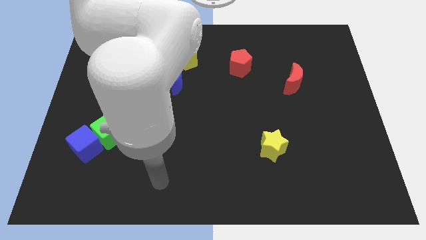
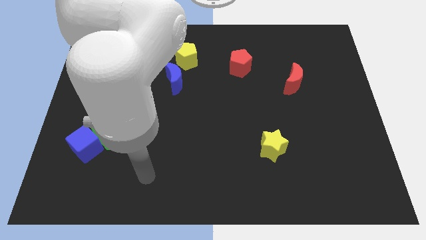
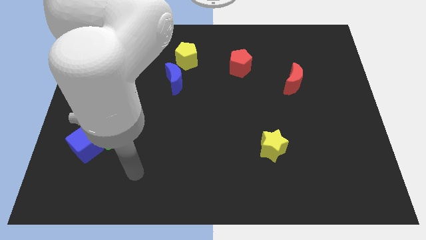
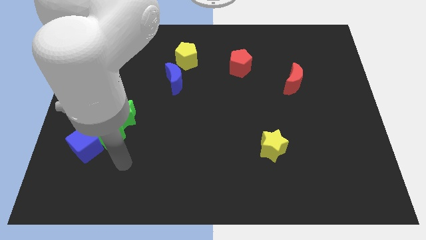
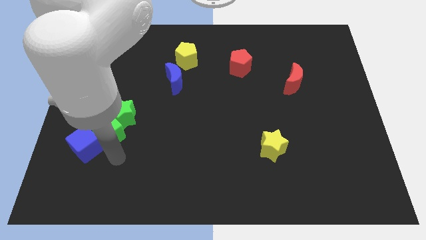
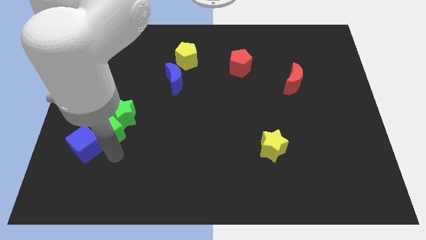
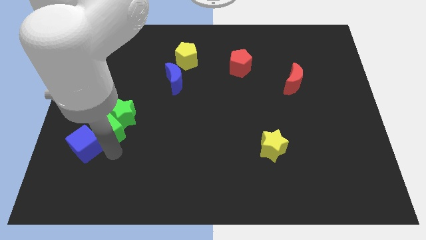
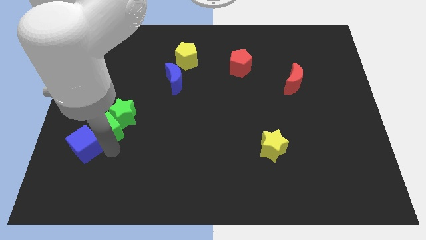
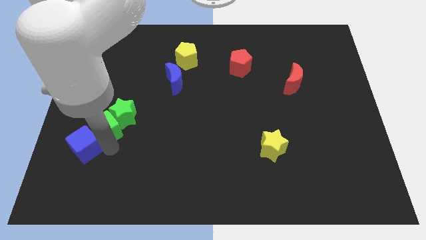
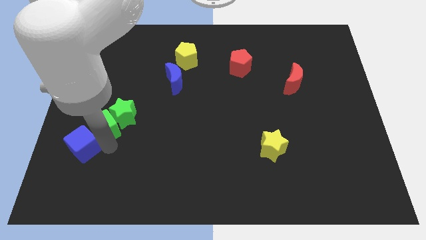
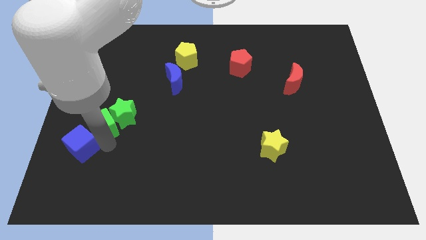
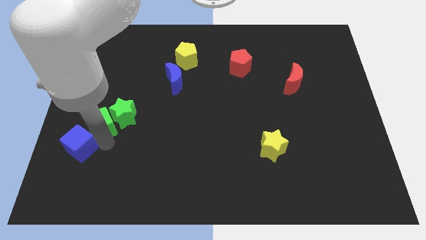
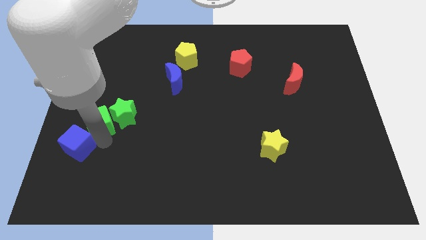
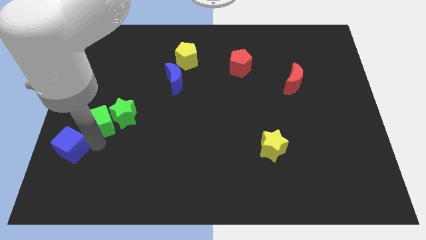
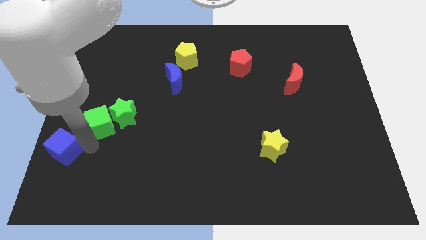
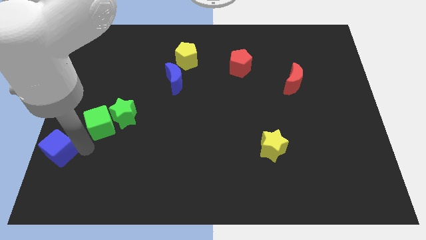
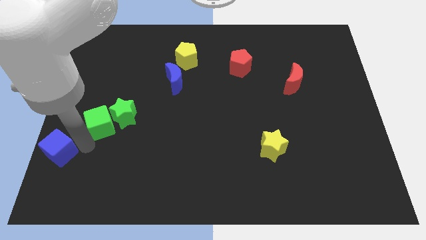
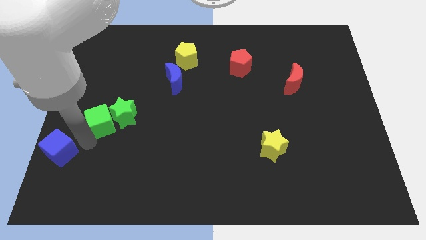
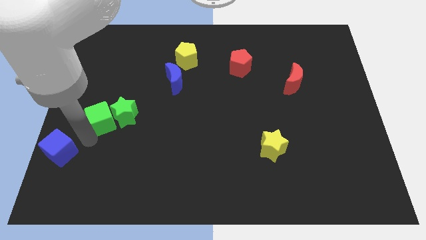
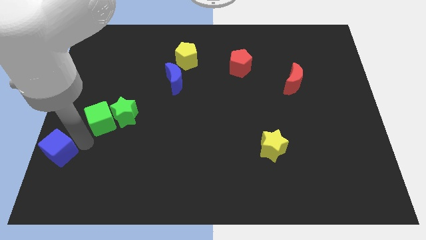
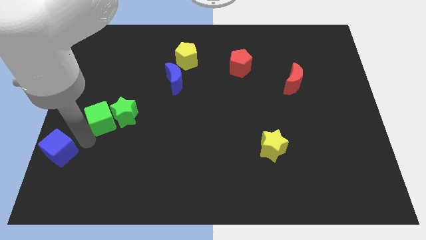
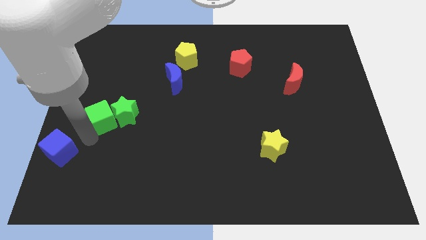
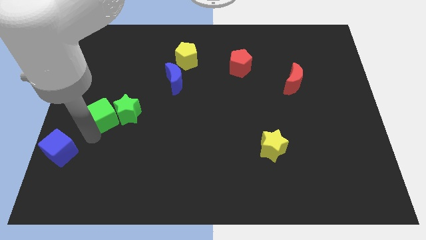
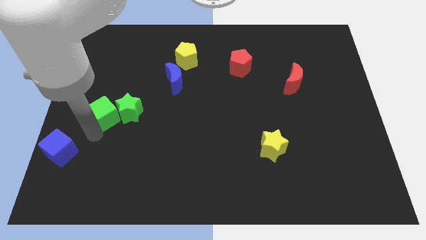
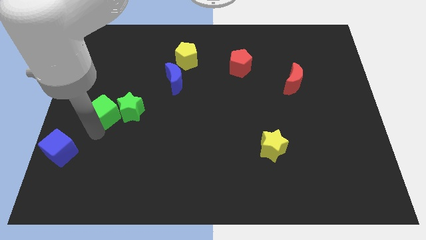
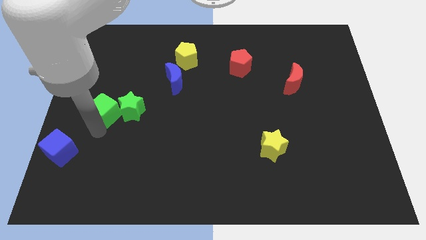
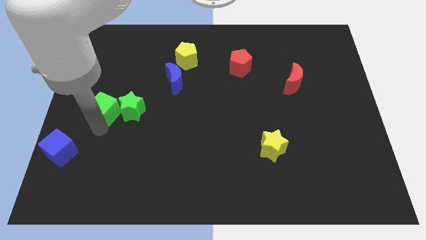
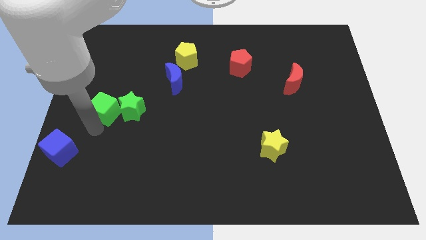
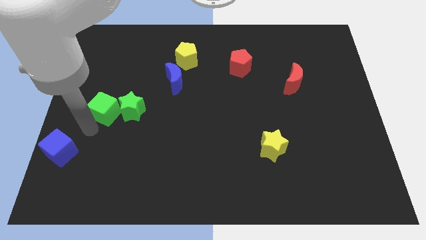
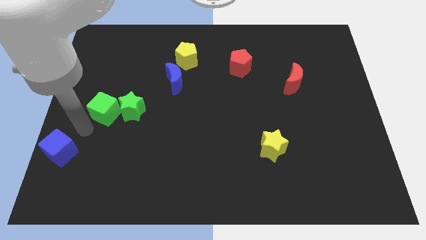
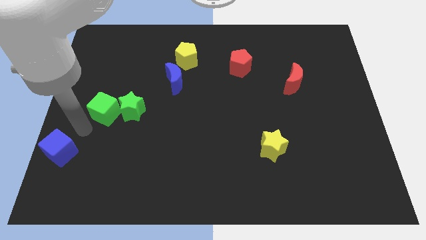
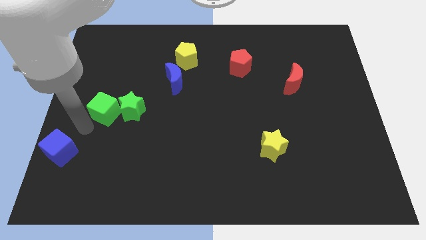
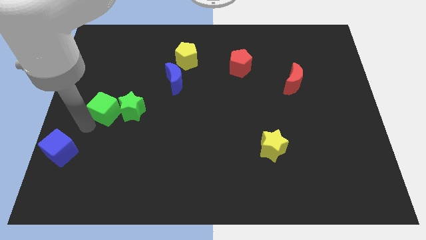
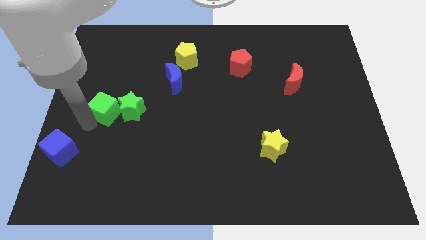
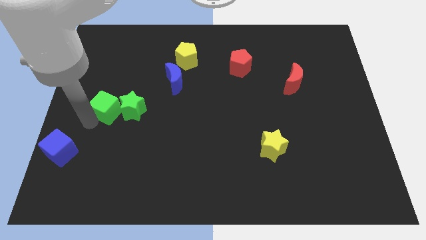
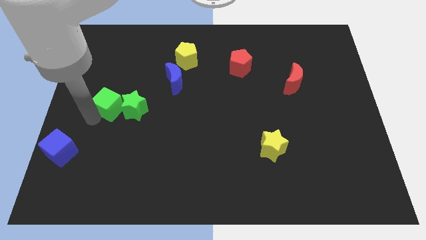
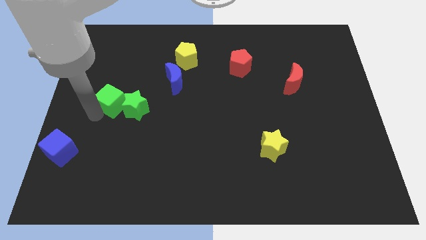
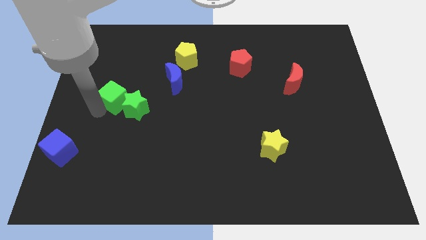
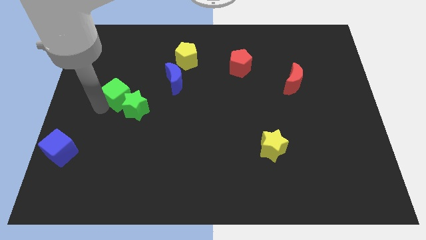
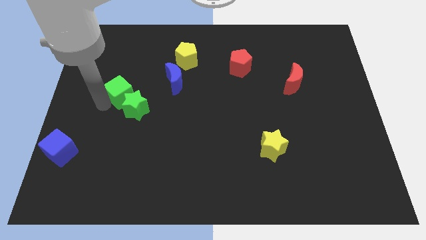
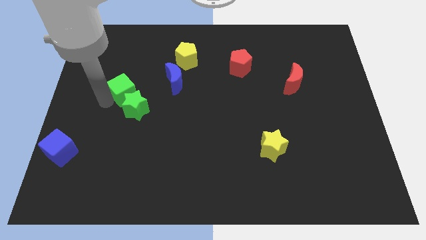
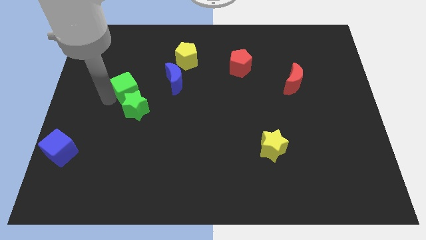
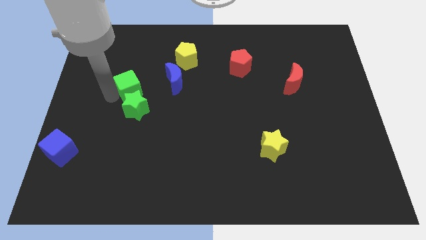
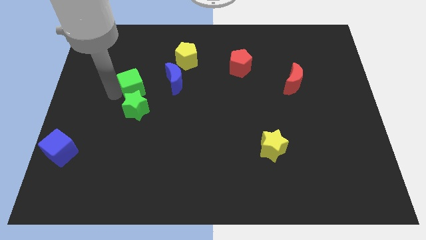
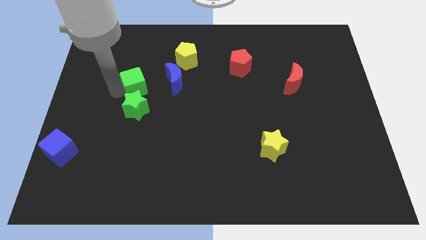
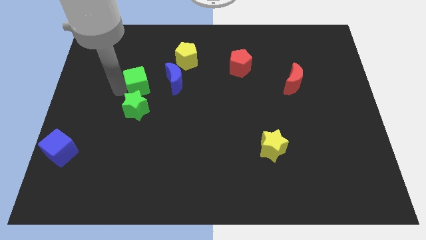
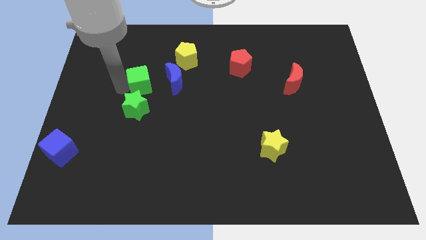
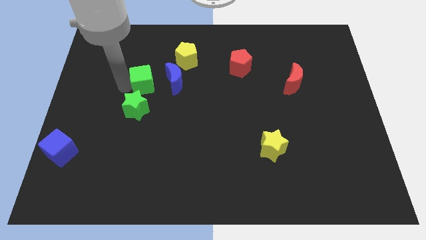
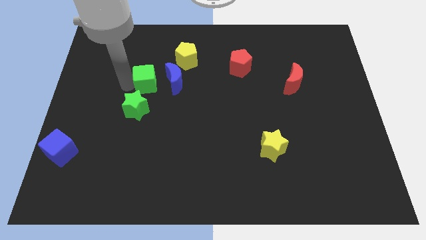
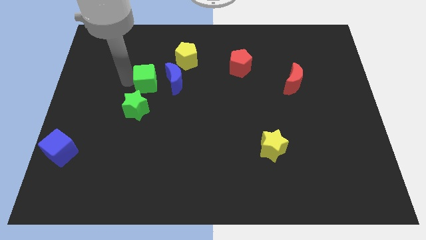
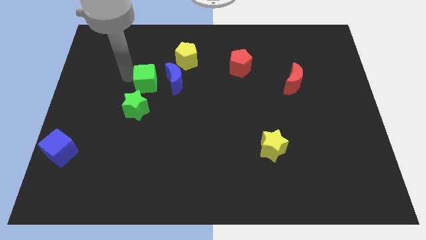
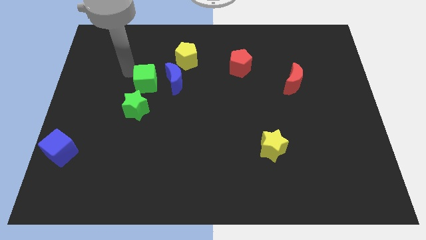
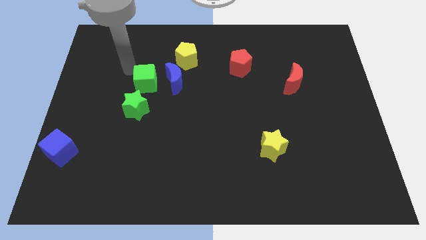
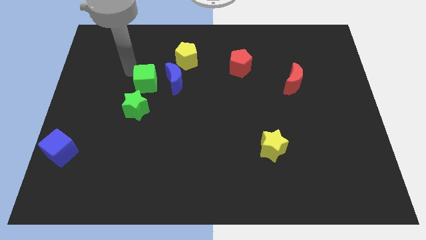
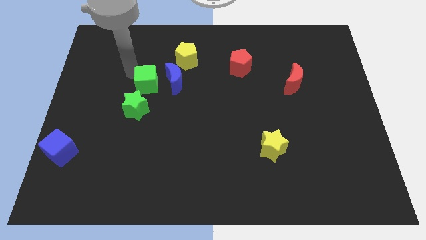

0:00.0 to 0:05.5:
put the green cube diagonally up and to the right of the green star

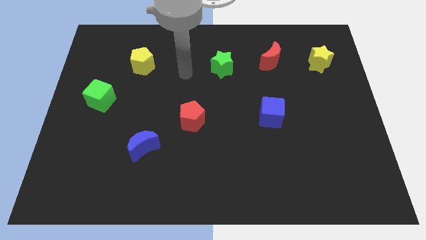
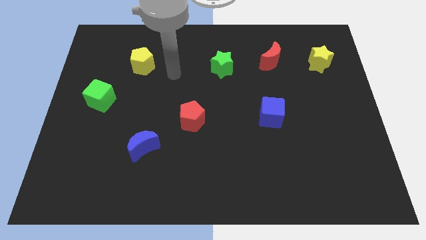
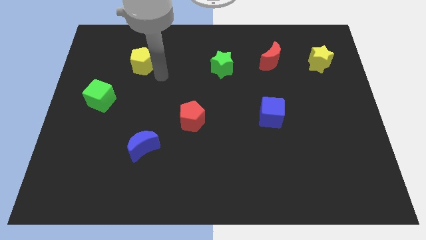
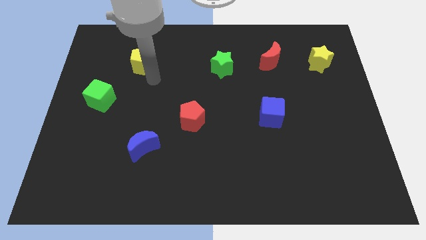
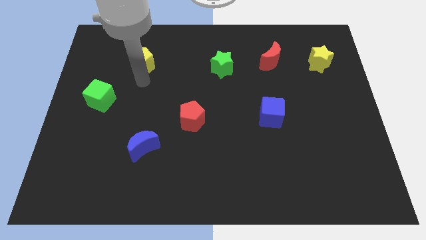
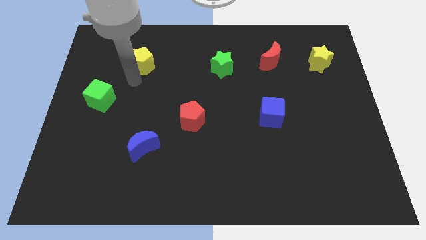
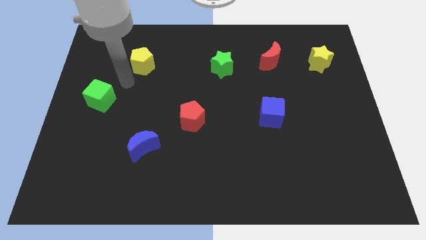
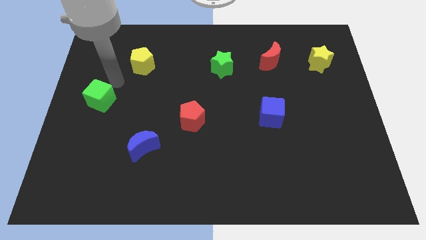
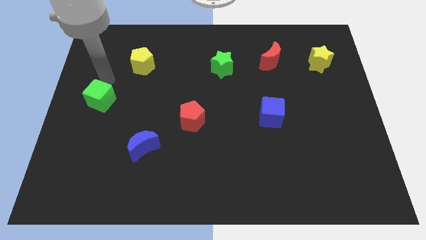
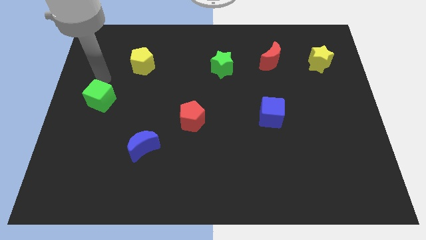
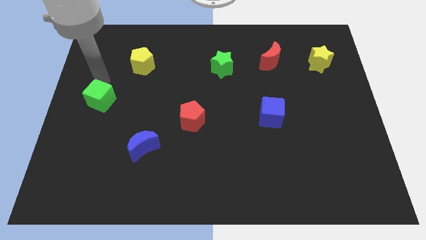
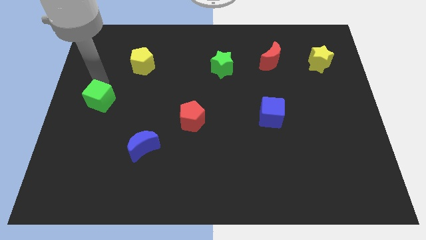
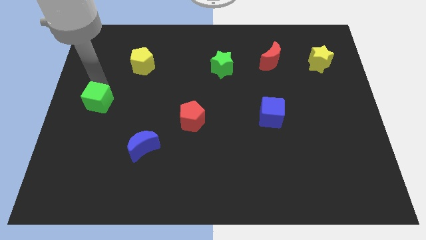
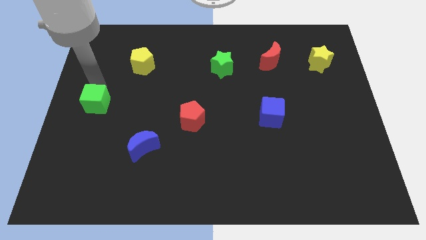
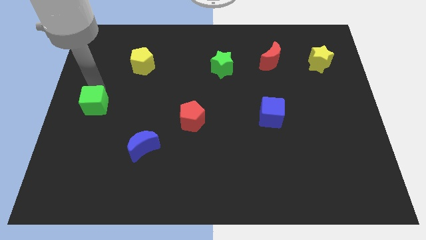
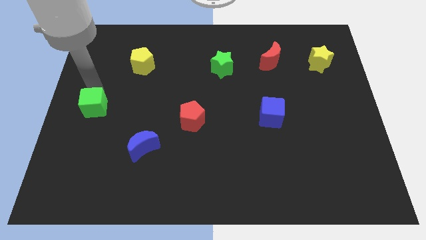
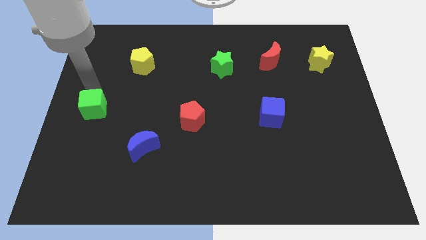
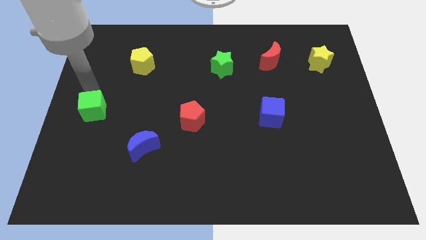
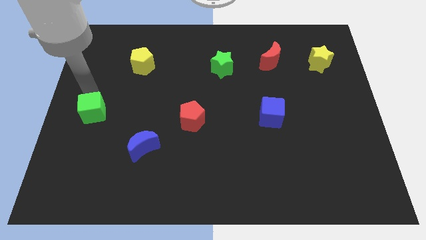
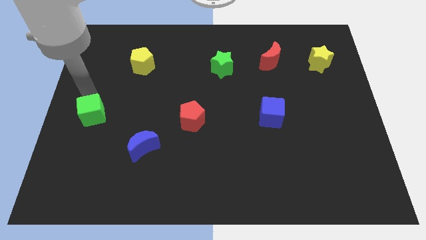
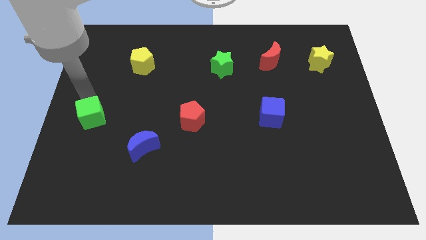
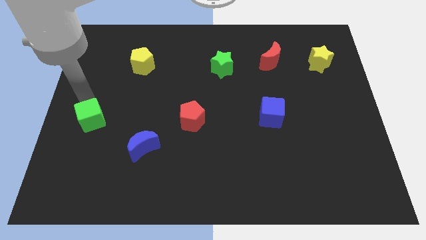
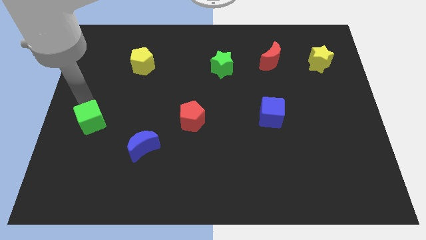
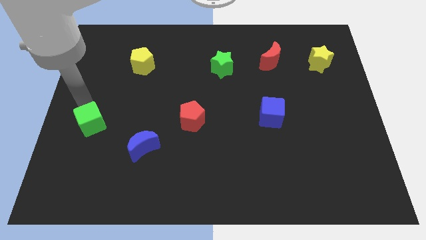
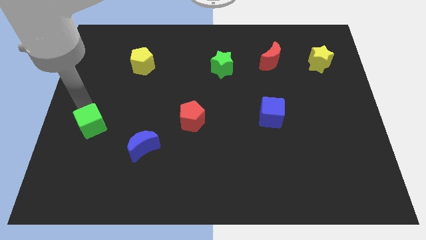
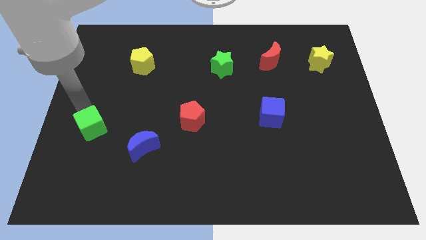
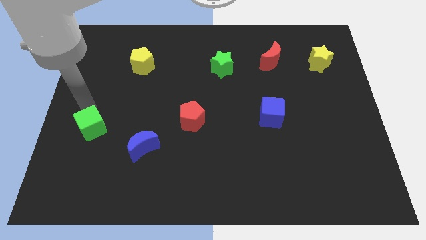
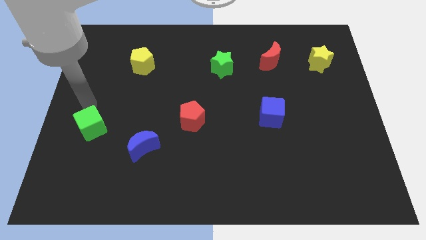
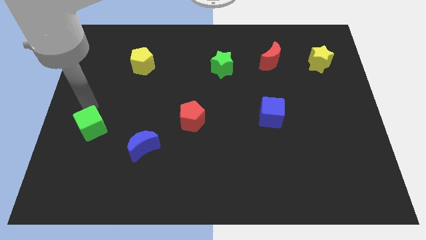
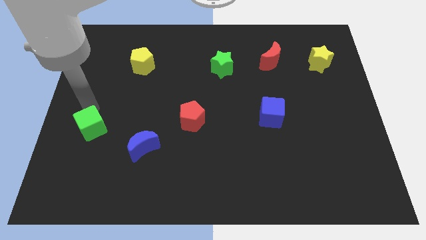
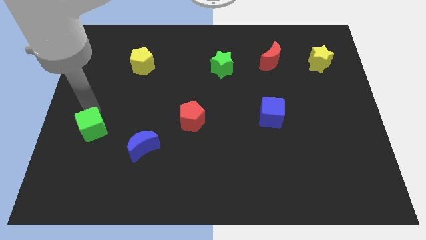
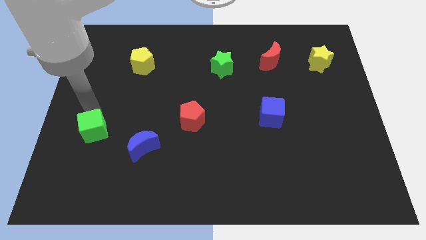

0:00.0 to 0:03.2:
put the green cube just left of the blue moon
